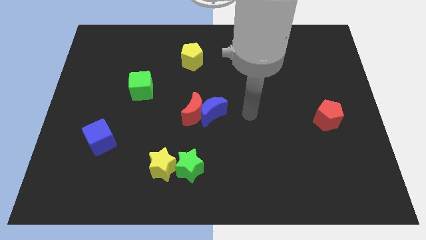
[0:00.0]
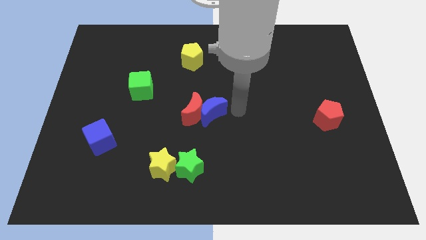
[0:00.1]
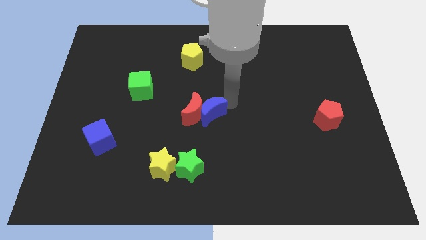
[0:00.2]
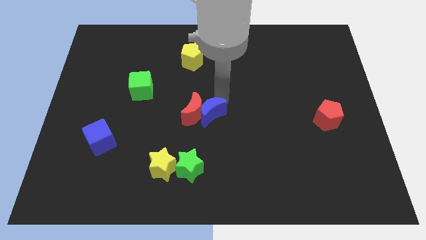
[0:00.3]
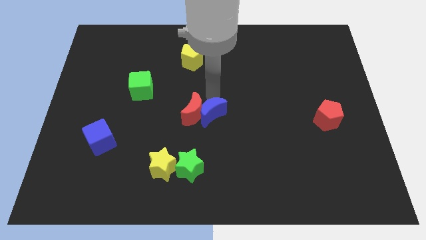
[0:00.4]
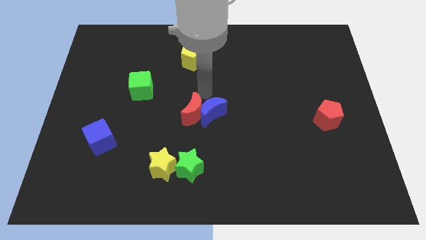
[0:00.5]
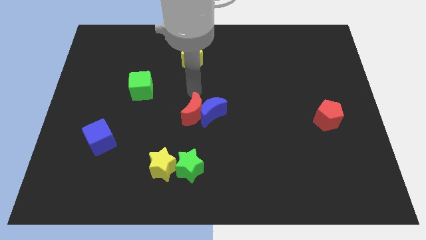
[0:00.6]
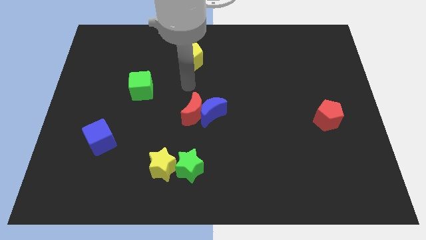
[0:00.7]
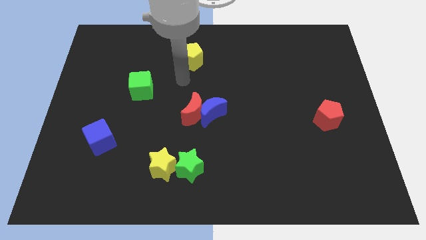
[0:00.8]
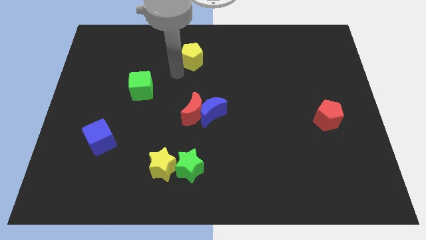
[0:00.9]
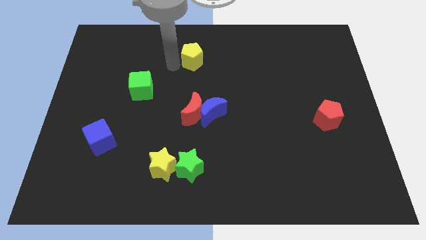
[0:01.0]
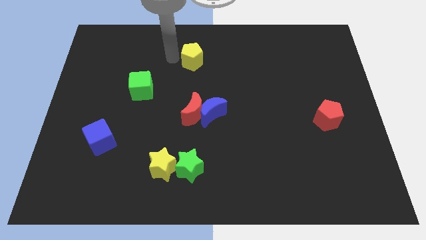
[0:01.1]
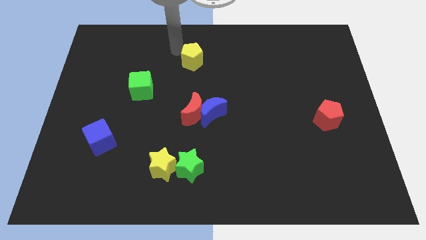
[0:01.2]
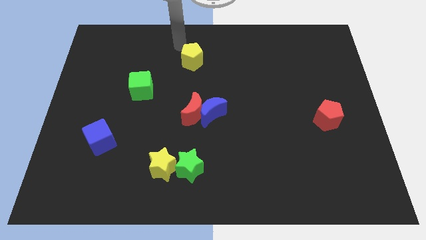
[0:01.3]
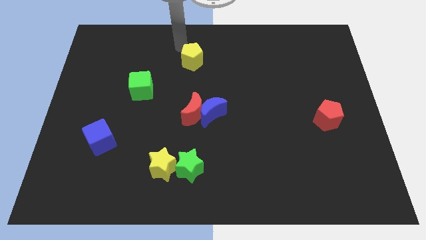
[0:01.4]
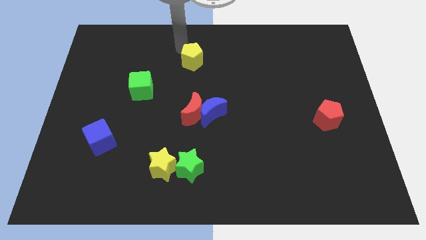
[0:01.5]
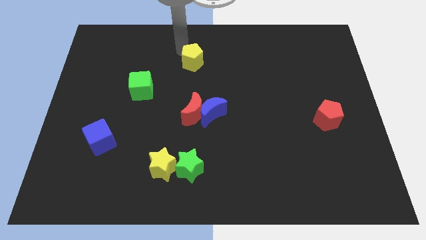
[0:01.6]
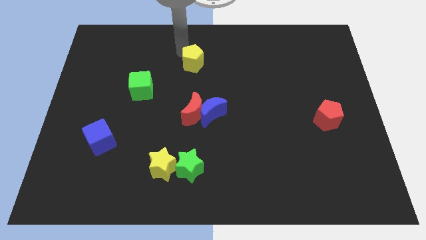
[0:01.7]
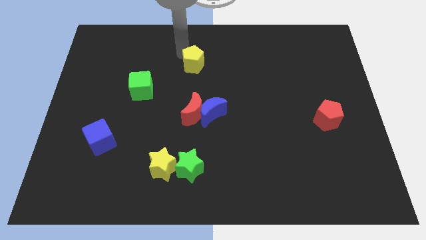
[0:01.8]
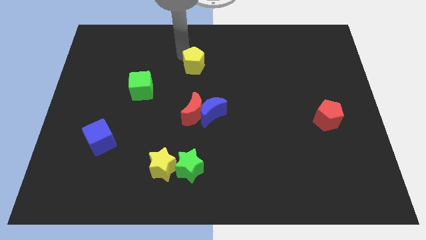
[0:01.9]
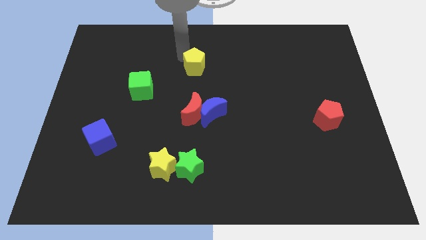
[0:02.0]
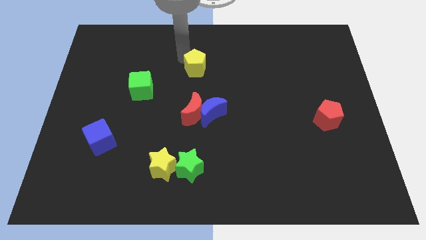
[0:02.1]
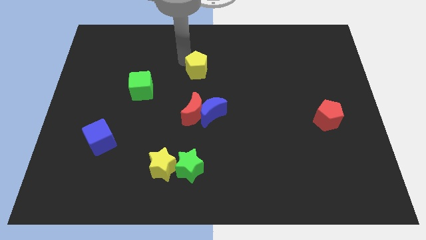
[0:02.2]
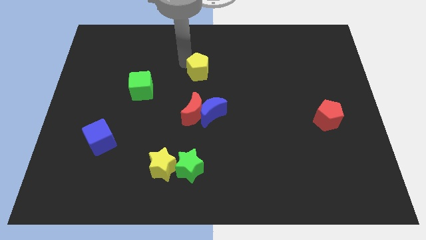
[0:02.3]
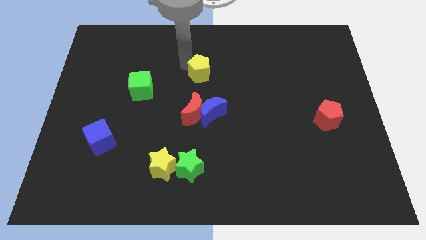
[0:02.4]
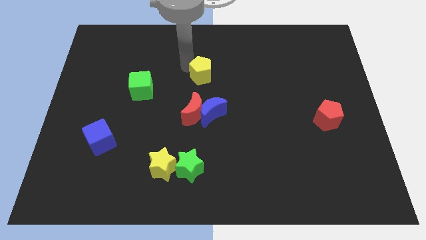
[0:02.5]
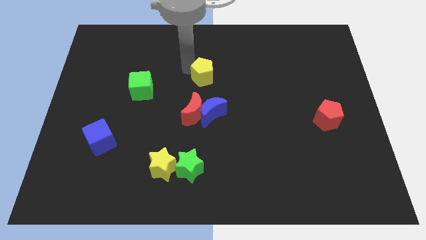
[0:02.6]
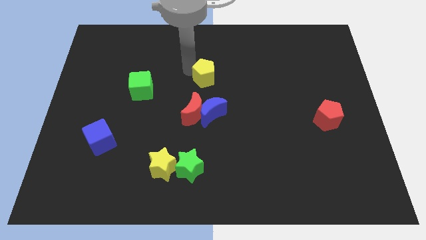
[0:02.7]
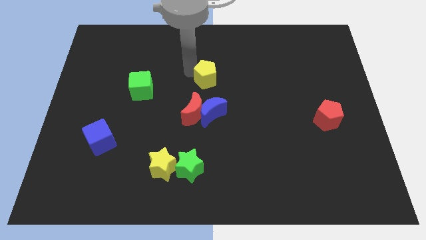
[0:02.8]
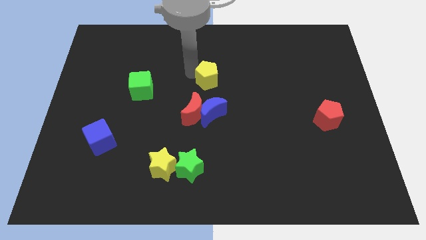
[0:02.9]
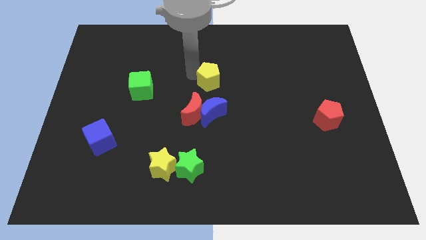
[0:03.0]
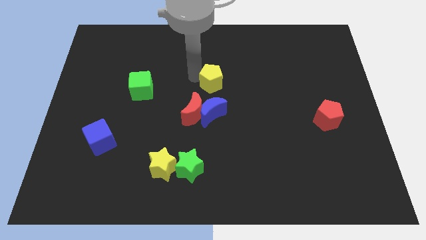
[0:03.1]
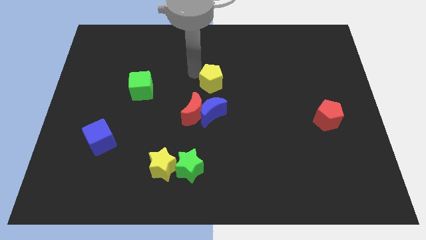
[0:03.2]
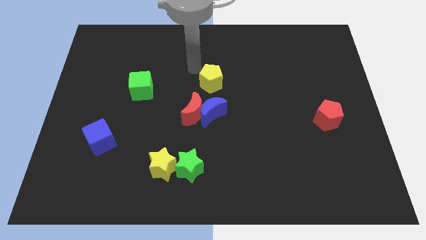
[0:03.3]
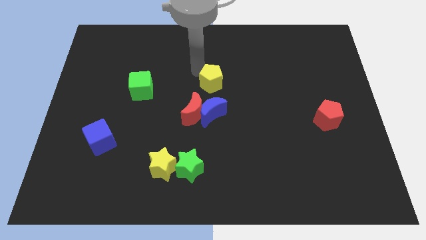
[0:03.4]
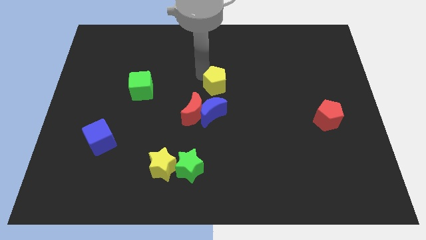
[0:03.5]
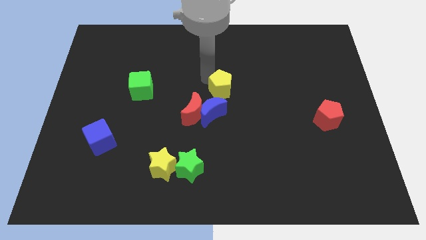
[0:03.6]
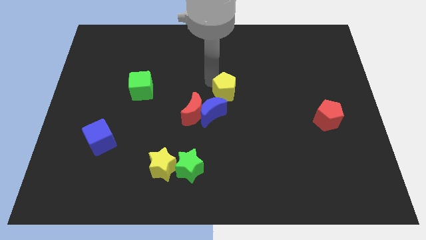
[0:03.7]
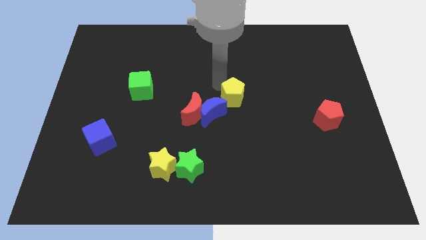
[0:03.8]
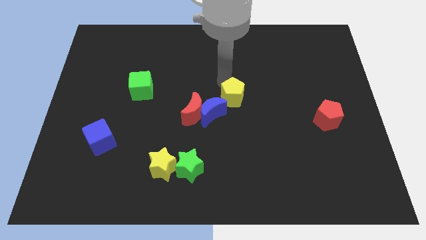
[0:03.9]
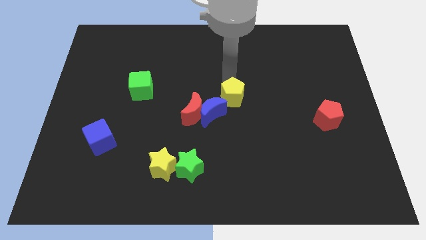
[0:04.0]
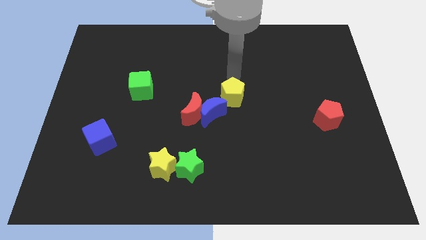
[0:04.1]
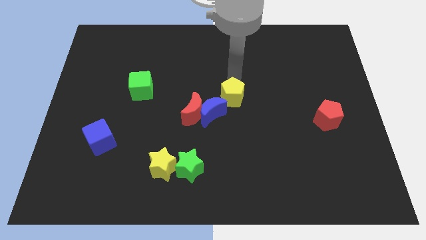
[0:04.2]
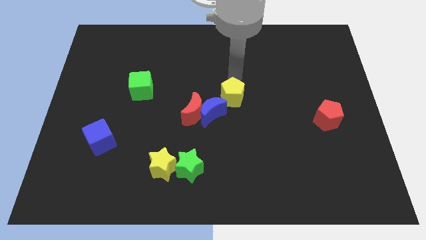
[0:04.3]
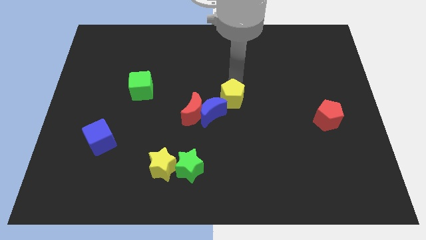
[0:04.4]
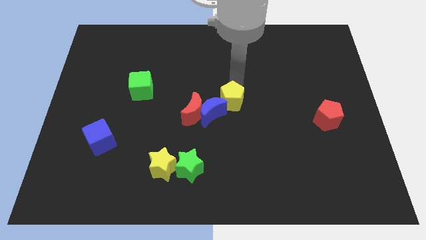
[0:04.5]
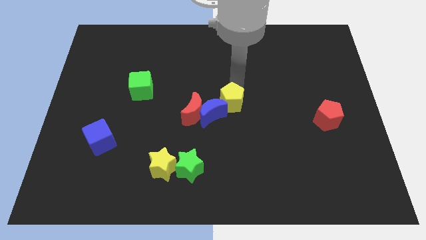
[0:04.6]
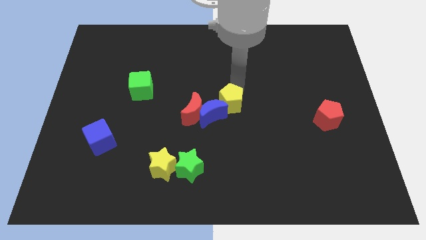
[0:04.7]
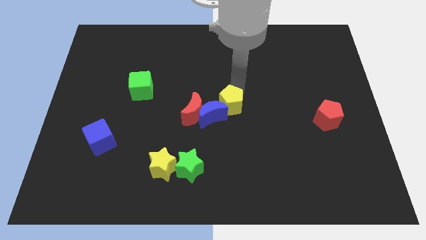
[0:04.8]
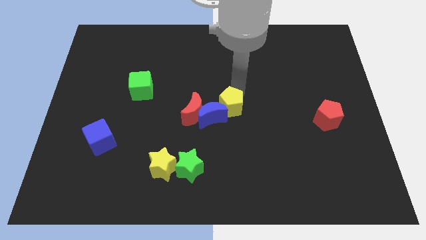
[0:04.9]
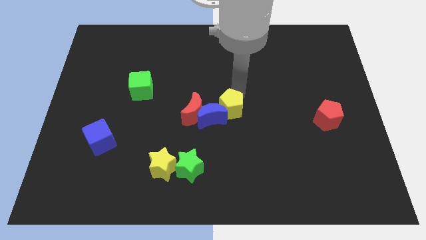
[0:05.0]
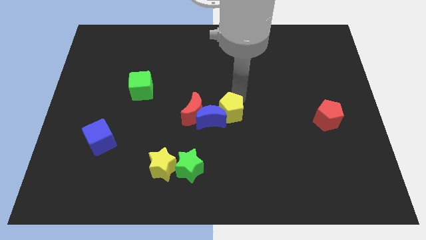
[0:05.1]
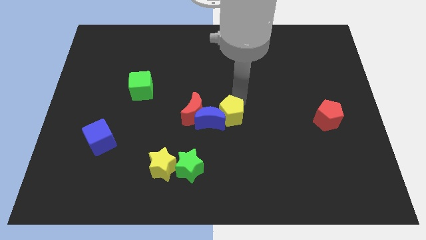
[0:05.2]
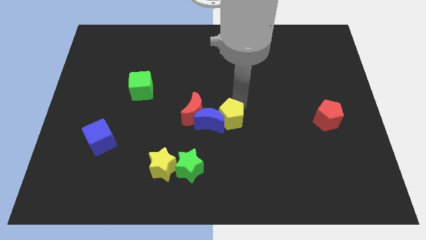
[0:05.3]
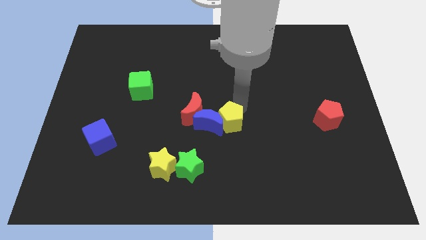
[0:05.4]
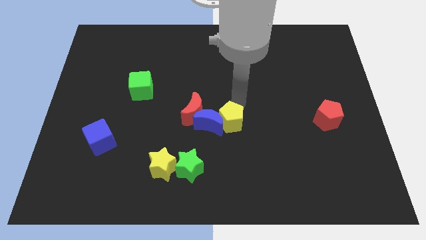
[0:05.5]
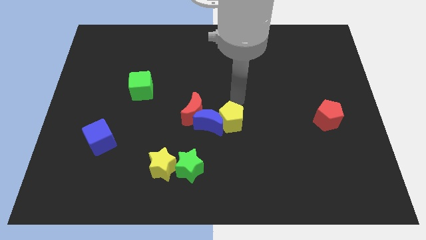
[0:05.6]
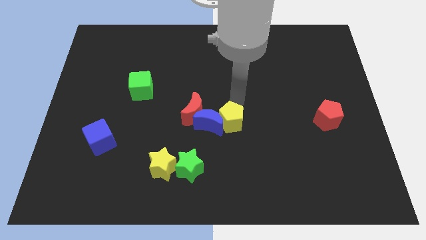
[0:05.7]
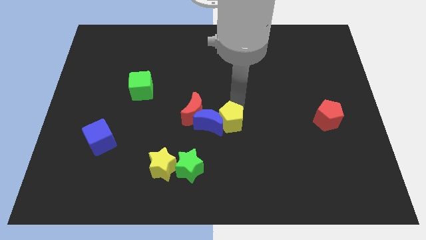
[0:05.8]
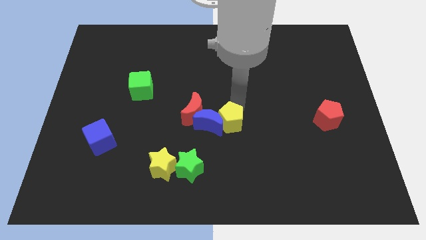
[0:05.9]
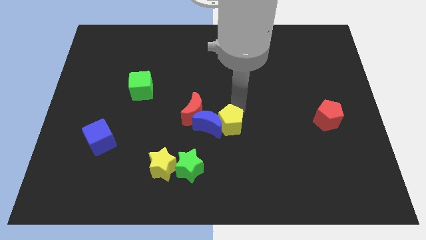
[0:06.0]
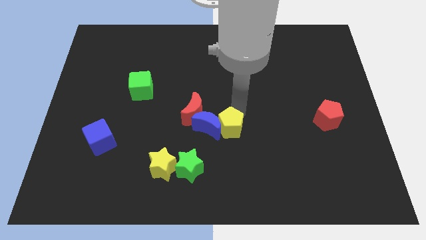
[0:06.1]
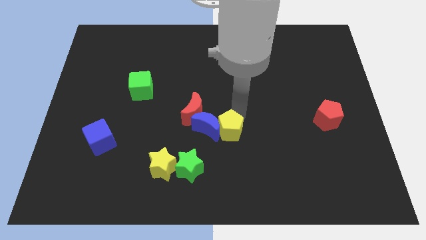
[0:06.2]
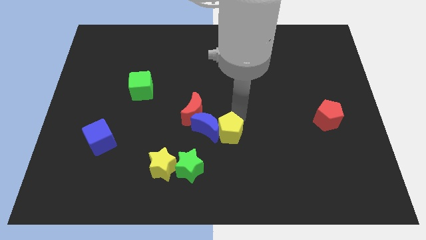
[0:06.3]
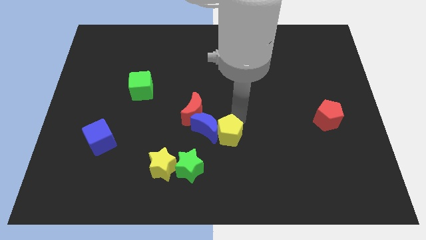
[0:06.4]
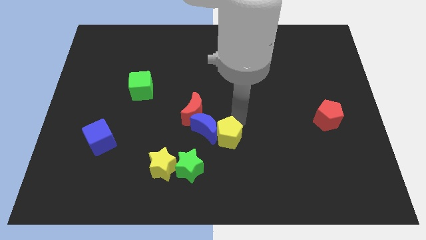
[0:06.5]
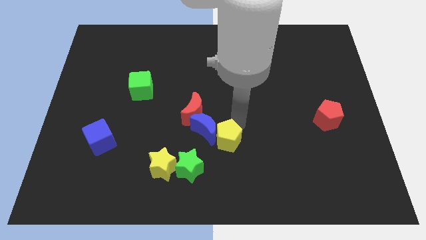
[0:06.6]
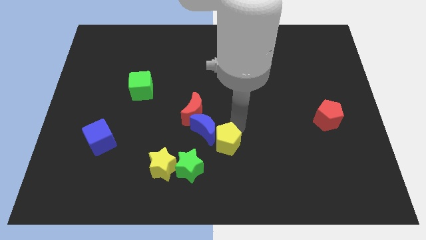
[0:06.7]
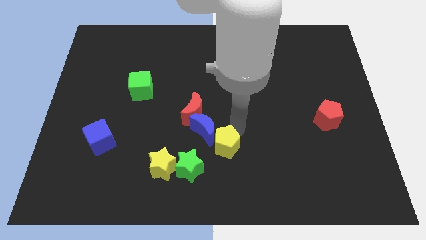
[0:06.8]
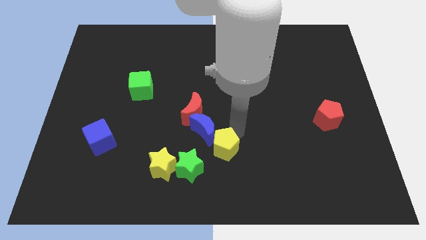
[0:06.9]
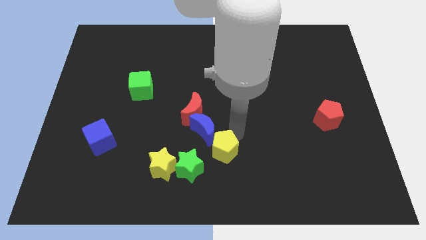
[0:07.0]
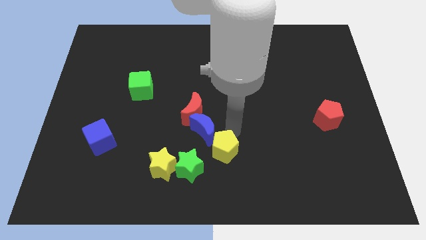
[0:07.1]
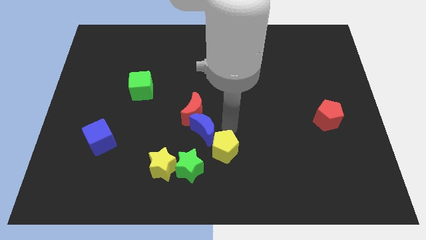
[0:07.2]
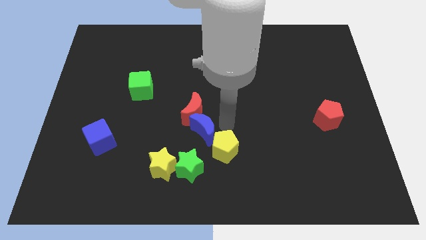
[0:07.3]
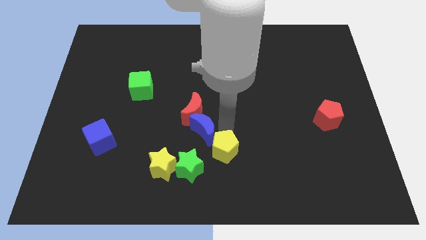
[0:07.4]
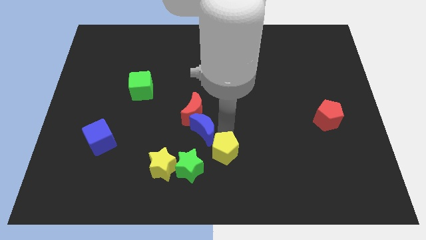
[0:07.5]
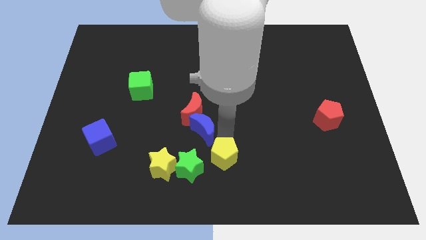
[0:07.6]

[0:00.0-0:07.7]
slide the yellow pentagon to the bottom

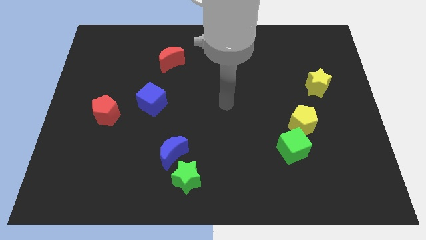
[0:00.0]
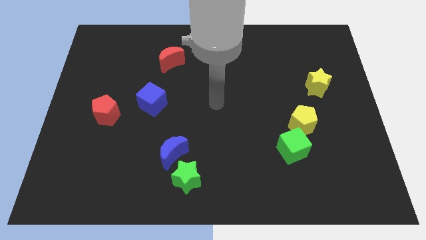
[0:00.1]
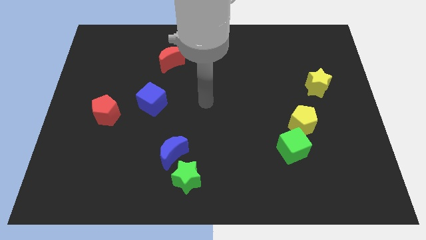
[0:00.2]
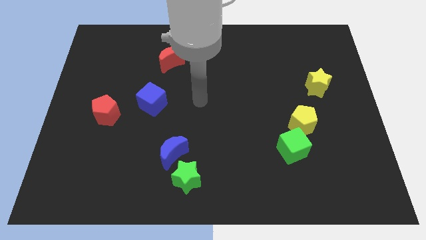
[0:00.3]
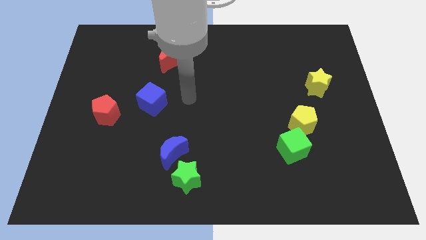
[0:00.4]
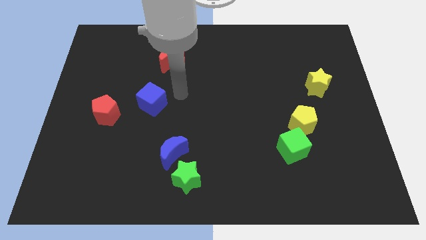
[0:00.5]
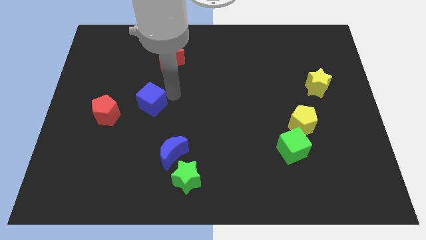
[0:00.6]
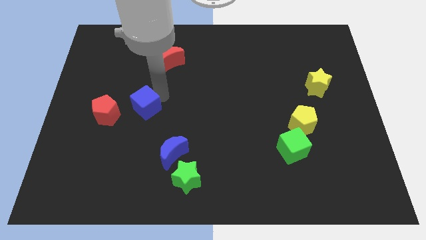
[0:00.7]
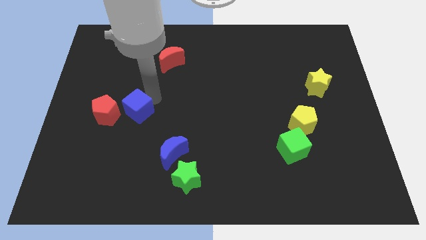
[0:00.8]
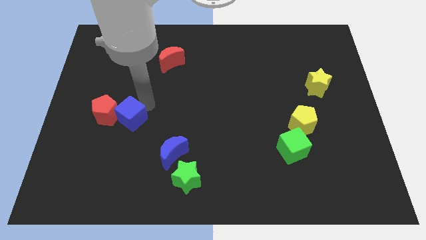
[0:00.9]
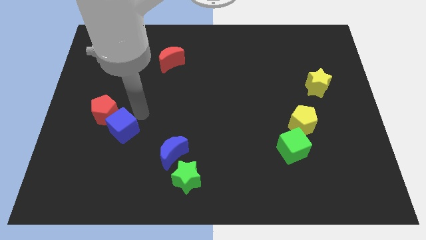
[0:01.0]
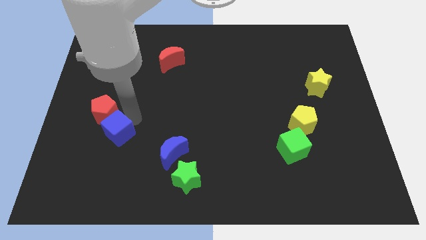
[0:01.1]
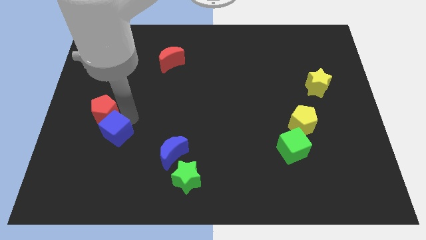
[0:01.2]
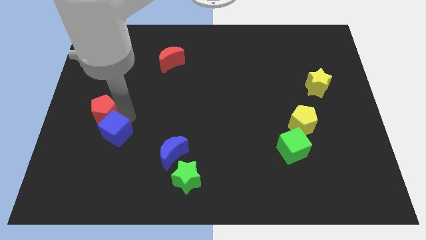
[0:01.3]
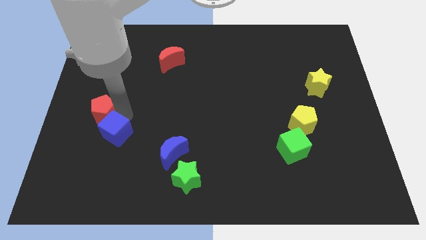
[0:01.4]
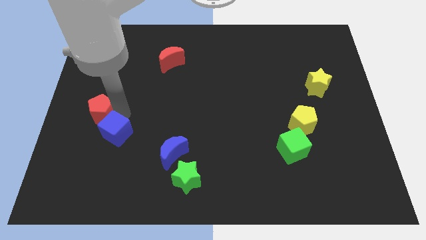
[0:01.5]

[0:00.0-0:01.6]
slide the red pentagon to the left side
